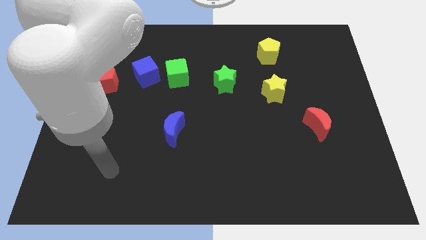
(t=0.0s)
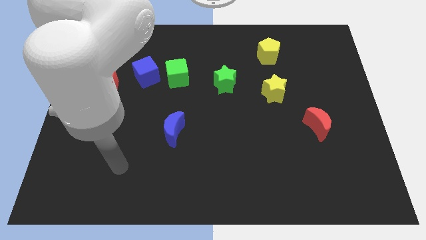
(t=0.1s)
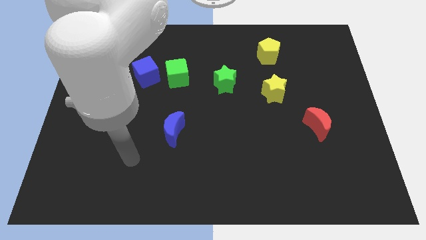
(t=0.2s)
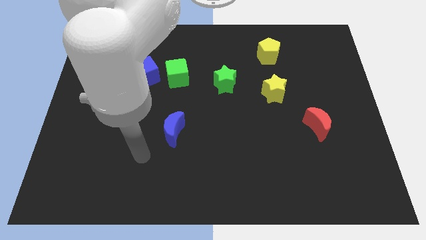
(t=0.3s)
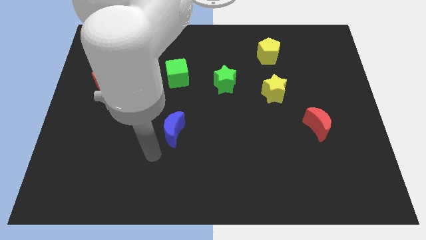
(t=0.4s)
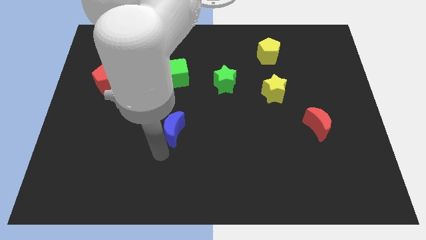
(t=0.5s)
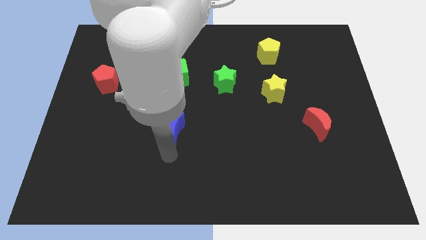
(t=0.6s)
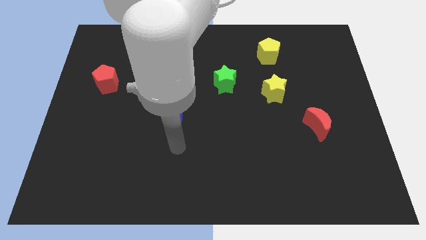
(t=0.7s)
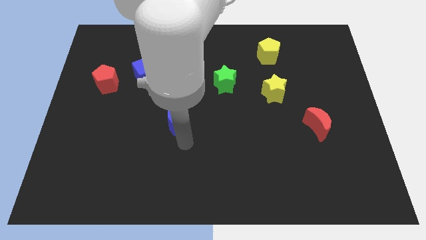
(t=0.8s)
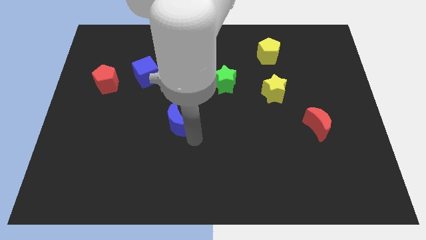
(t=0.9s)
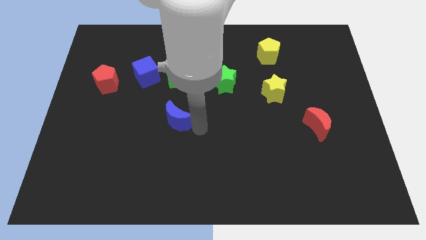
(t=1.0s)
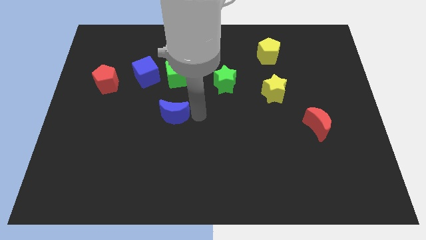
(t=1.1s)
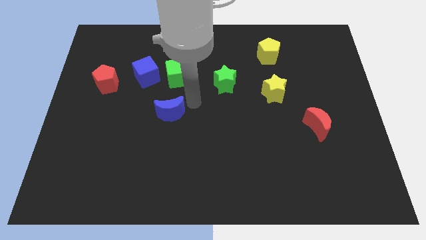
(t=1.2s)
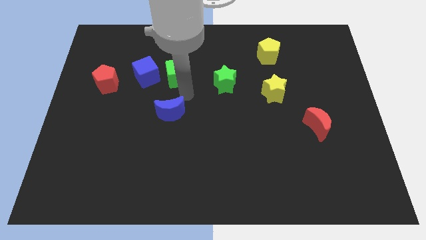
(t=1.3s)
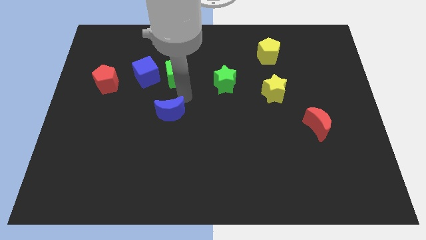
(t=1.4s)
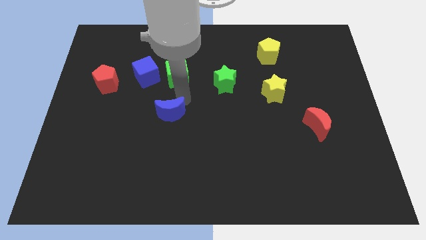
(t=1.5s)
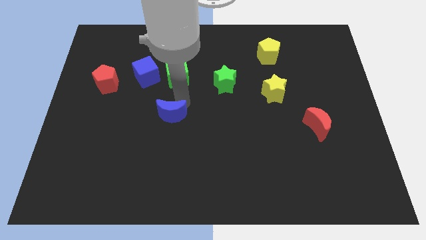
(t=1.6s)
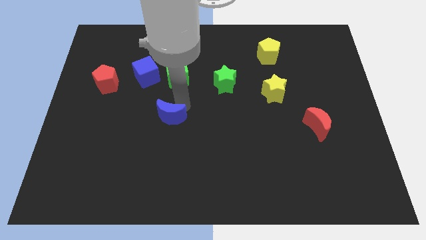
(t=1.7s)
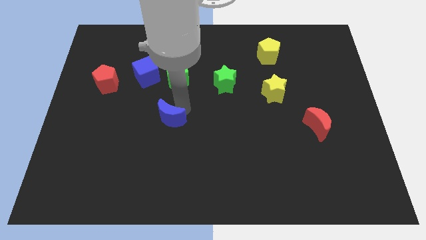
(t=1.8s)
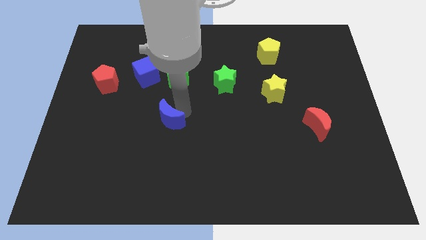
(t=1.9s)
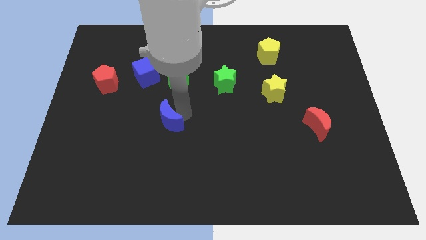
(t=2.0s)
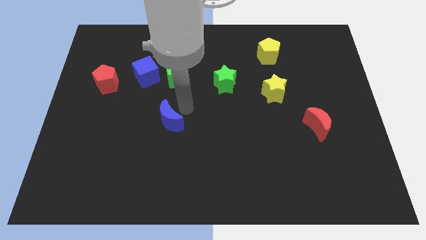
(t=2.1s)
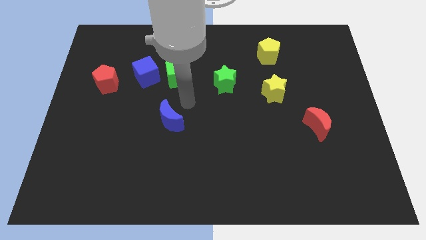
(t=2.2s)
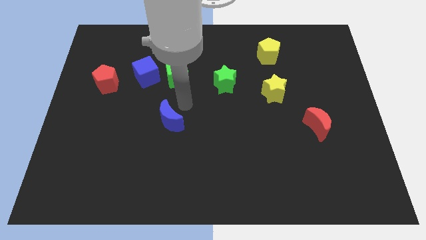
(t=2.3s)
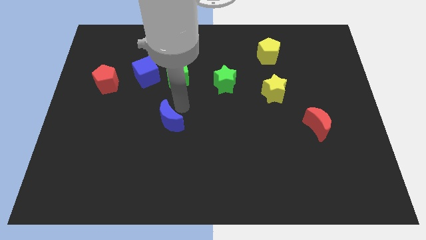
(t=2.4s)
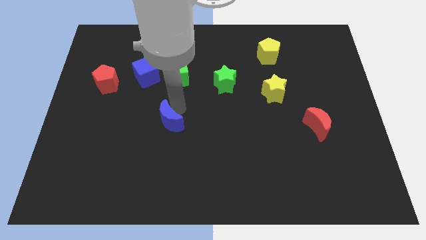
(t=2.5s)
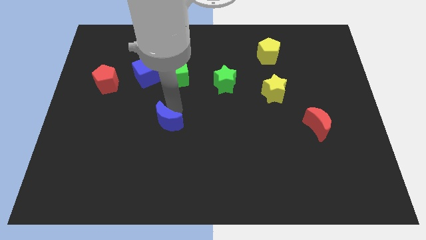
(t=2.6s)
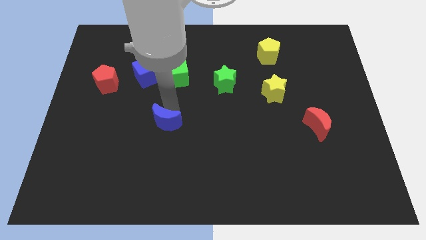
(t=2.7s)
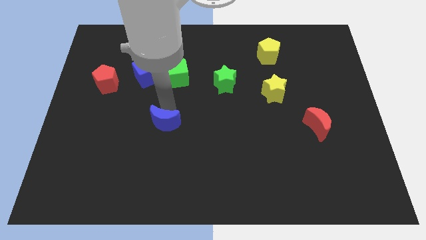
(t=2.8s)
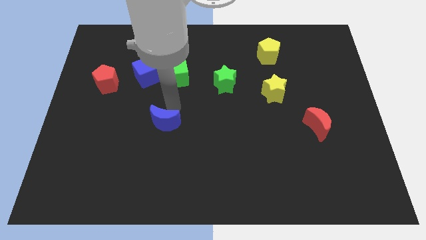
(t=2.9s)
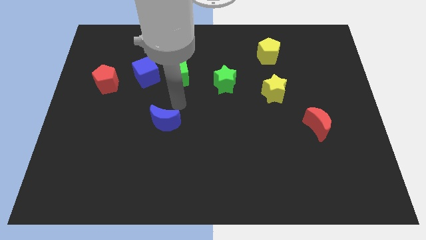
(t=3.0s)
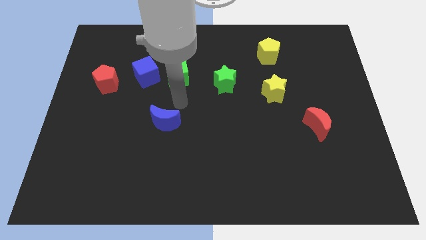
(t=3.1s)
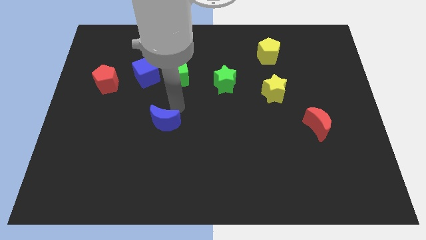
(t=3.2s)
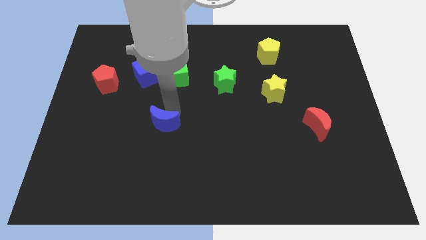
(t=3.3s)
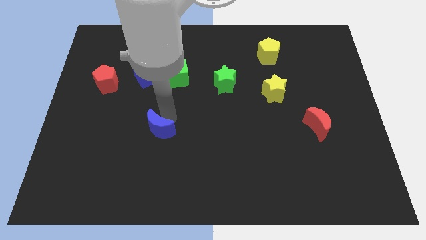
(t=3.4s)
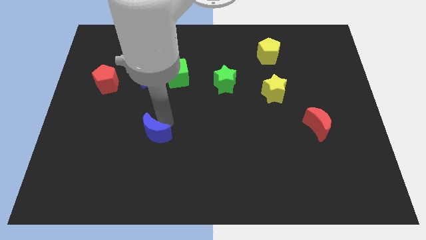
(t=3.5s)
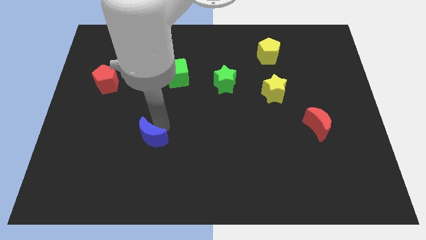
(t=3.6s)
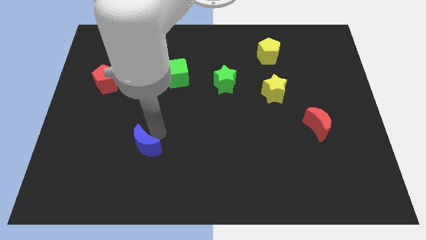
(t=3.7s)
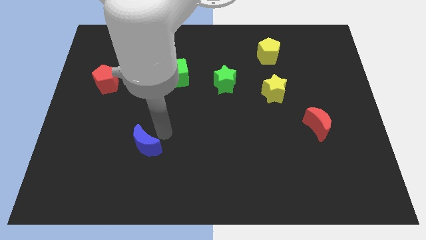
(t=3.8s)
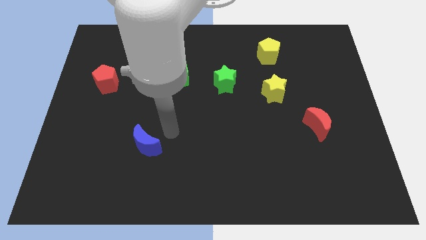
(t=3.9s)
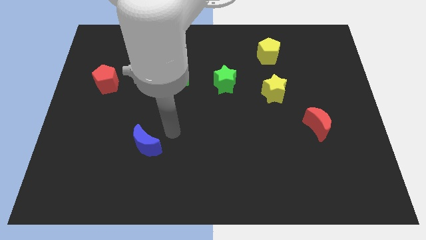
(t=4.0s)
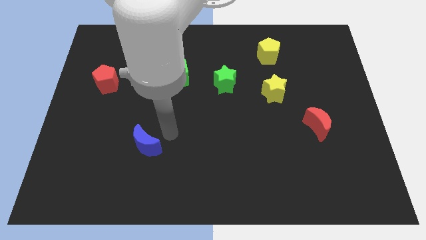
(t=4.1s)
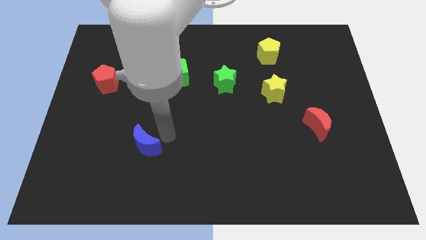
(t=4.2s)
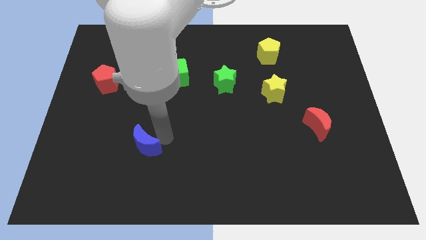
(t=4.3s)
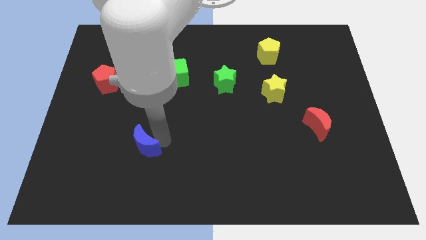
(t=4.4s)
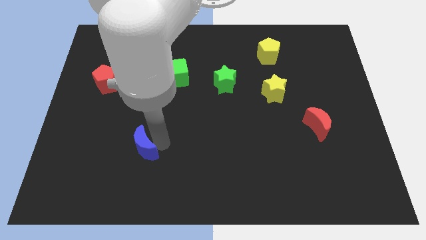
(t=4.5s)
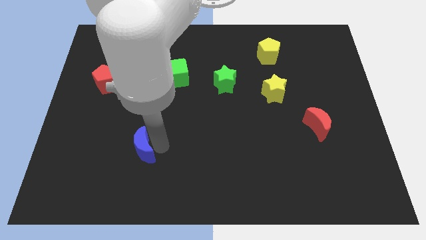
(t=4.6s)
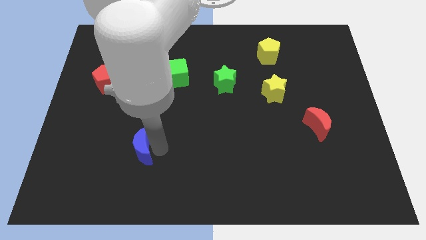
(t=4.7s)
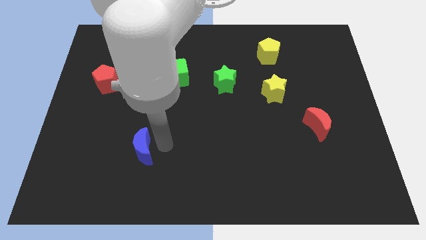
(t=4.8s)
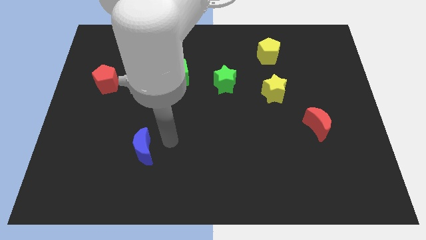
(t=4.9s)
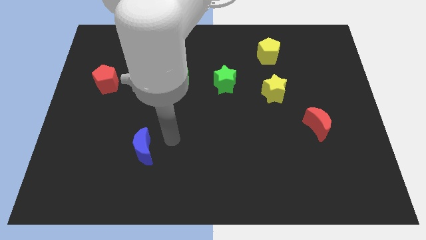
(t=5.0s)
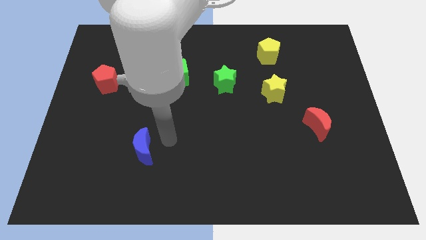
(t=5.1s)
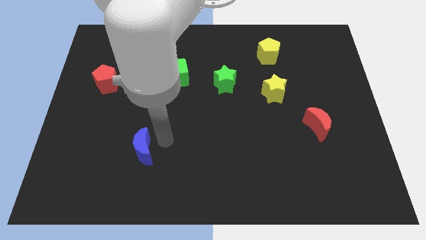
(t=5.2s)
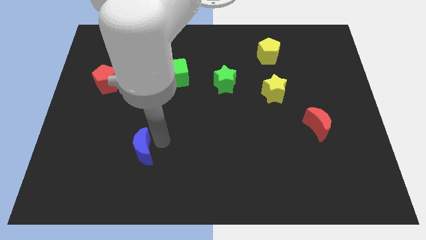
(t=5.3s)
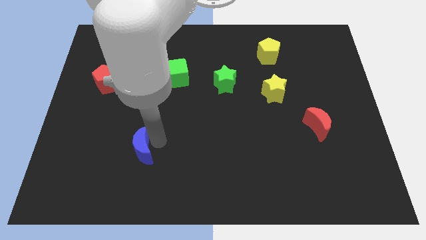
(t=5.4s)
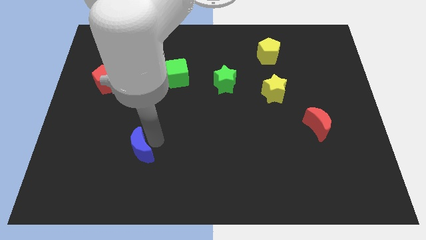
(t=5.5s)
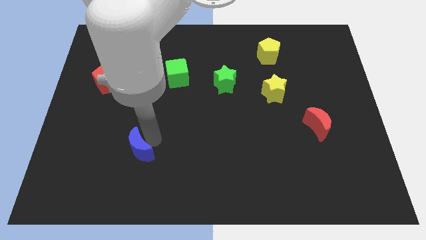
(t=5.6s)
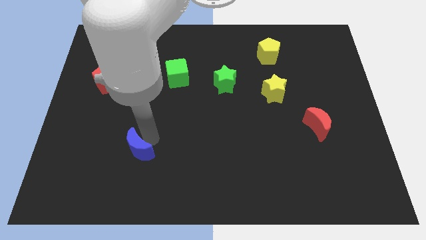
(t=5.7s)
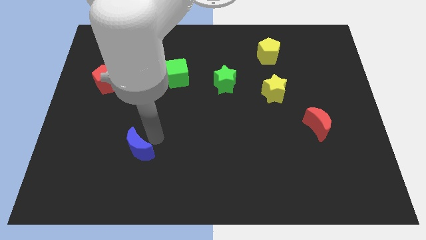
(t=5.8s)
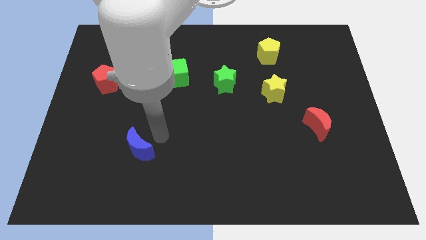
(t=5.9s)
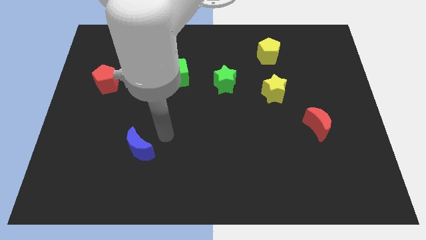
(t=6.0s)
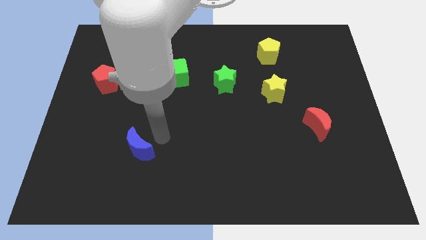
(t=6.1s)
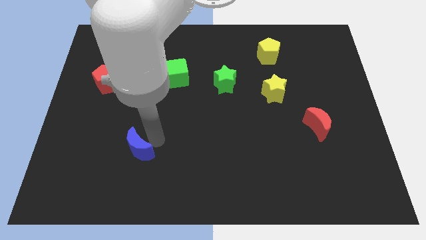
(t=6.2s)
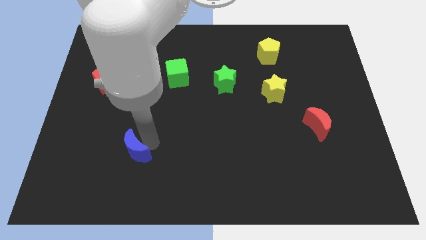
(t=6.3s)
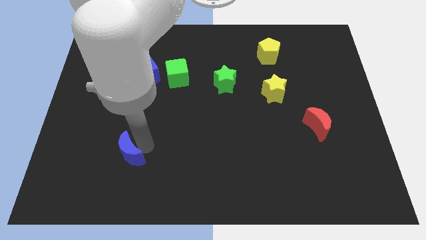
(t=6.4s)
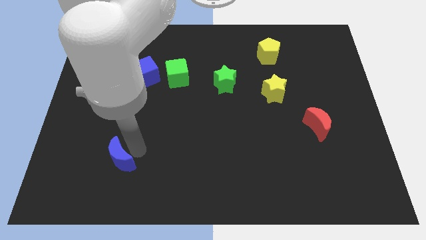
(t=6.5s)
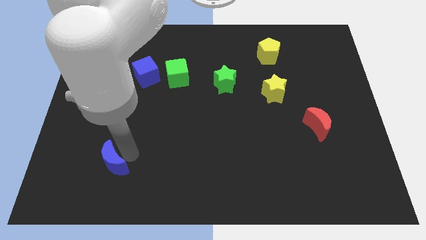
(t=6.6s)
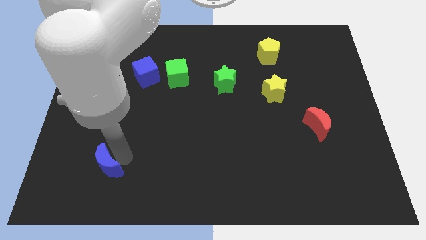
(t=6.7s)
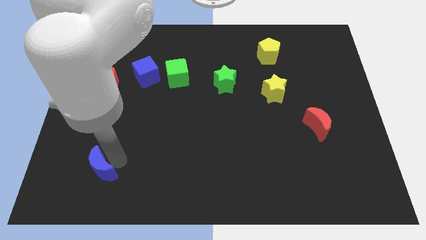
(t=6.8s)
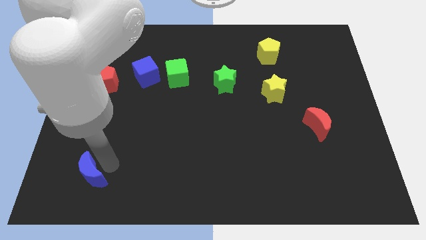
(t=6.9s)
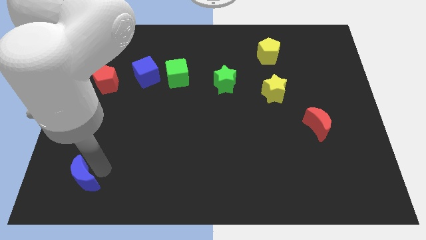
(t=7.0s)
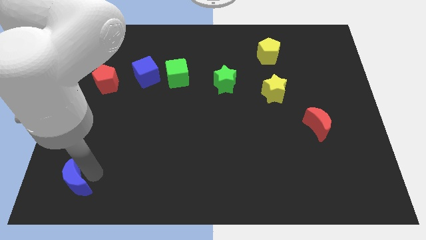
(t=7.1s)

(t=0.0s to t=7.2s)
slide the blue moon to the bottom left

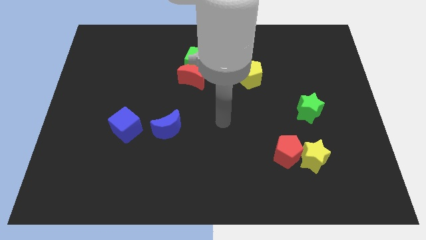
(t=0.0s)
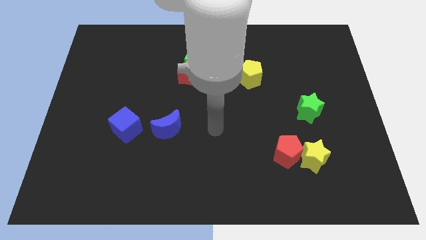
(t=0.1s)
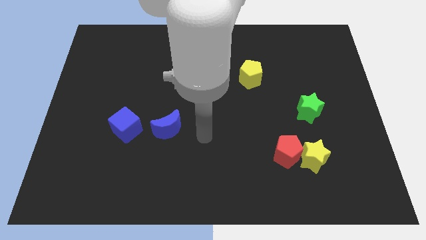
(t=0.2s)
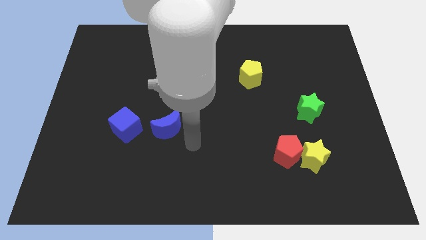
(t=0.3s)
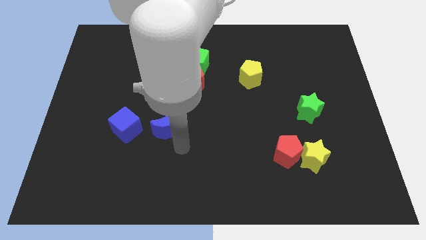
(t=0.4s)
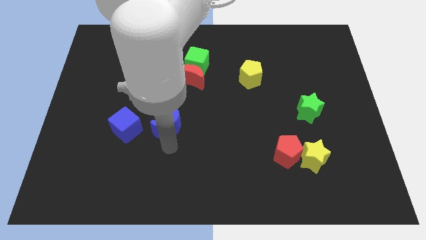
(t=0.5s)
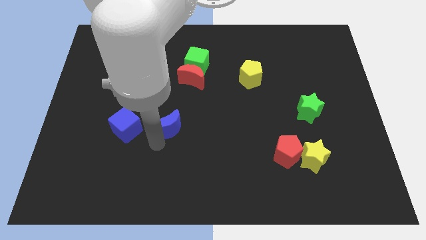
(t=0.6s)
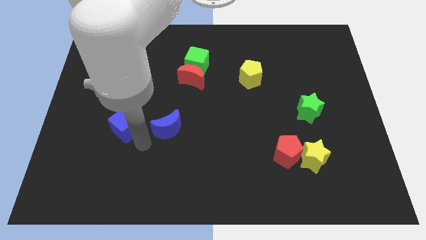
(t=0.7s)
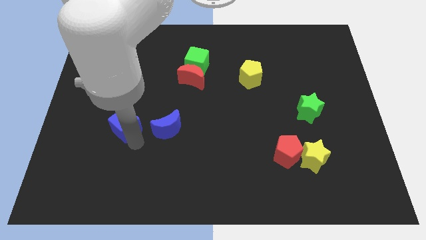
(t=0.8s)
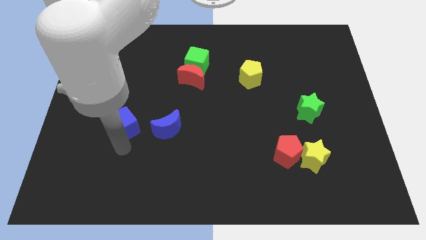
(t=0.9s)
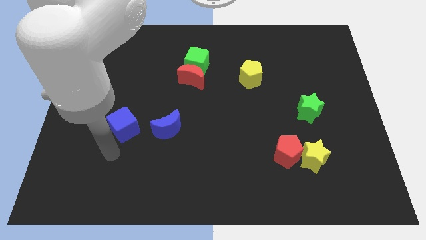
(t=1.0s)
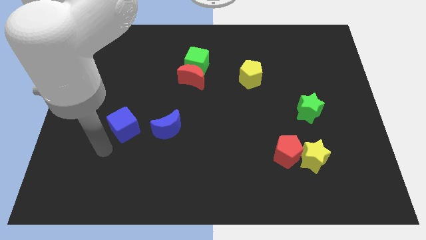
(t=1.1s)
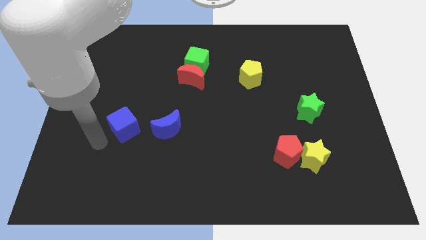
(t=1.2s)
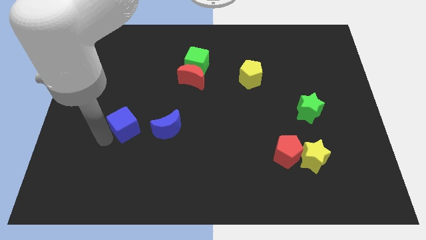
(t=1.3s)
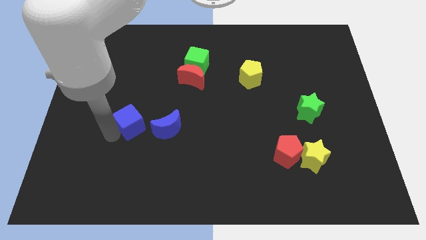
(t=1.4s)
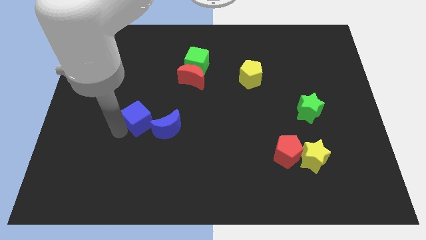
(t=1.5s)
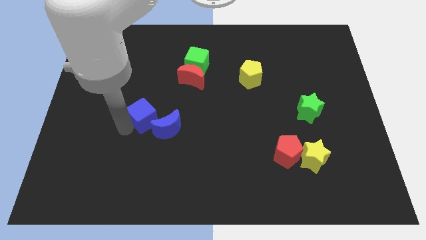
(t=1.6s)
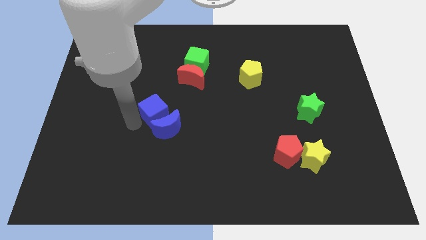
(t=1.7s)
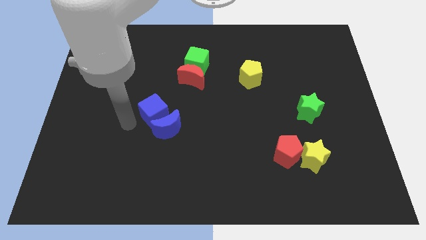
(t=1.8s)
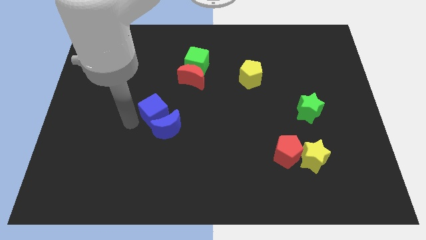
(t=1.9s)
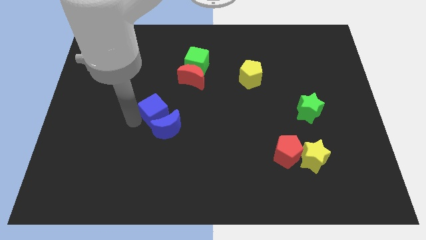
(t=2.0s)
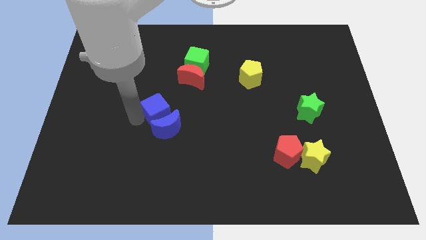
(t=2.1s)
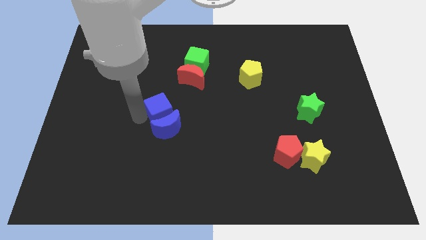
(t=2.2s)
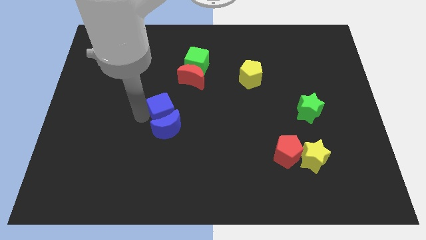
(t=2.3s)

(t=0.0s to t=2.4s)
put the blue cube to the center
